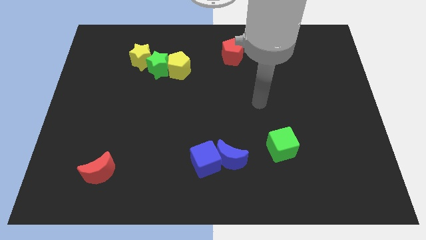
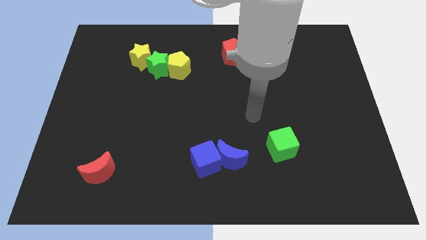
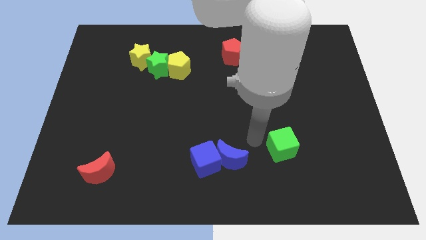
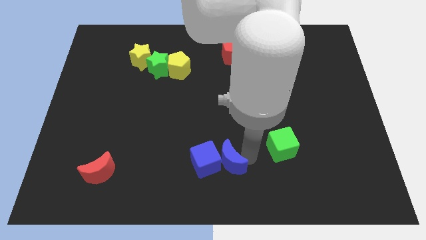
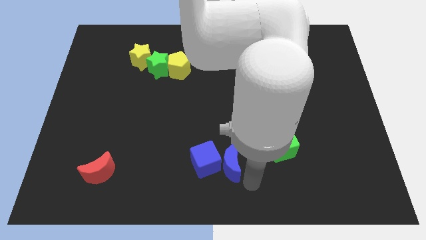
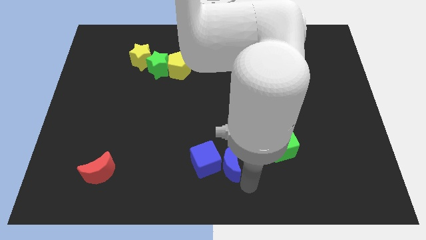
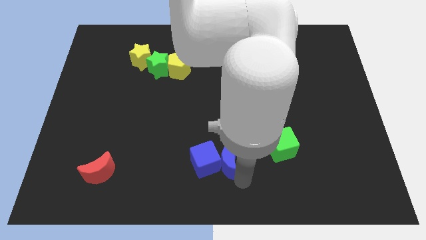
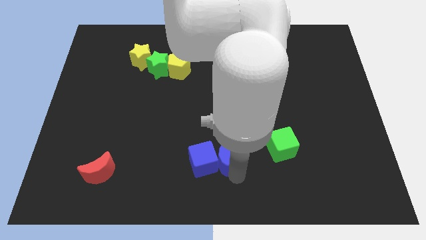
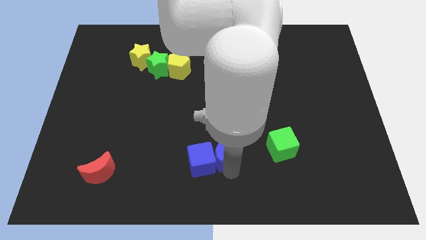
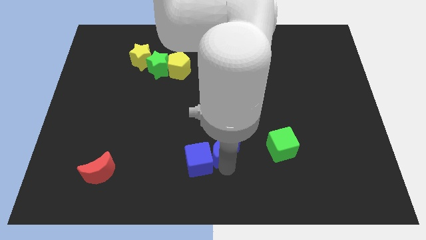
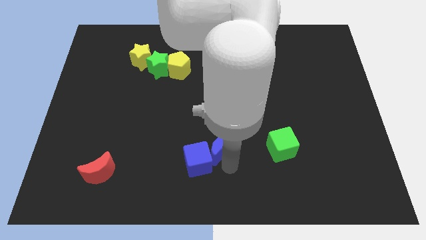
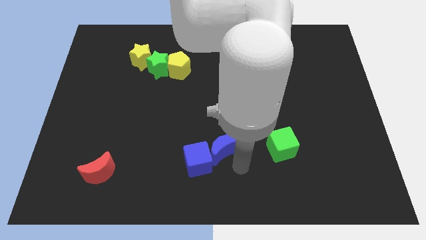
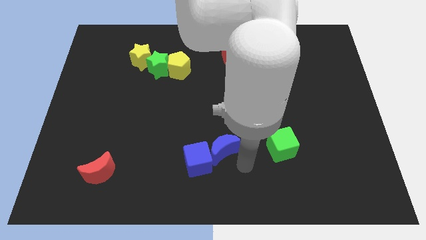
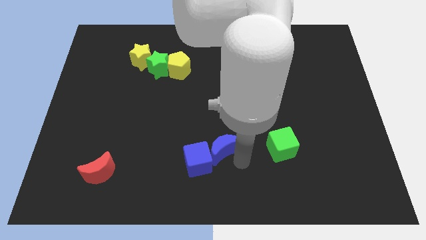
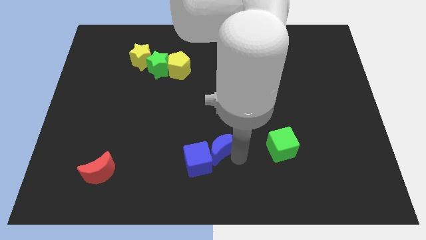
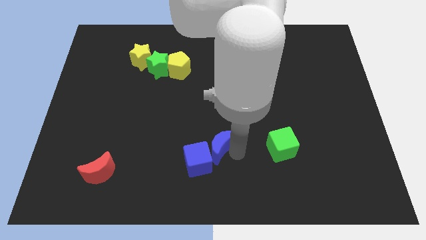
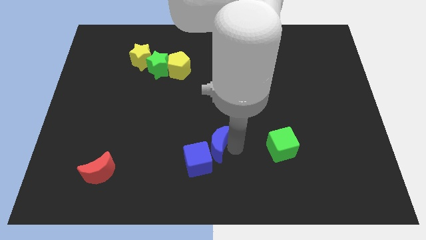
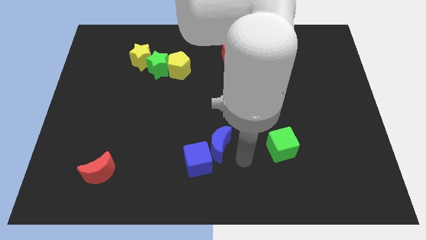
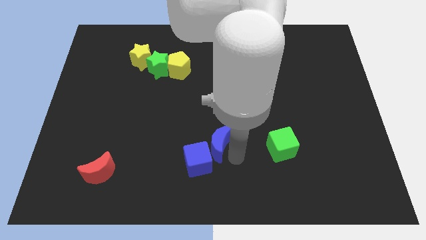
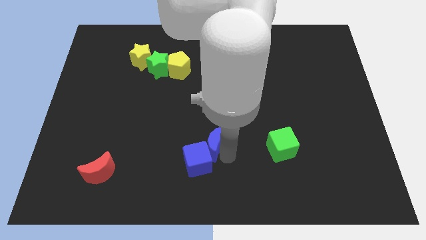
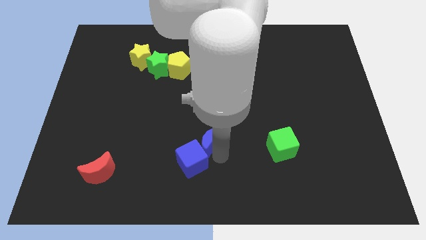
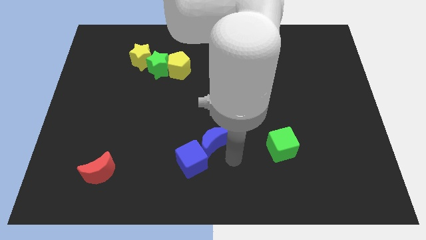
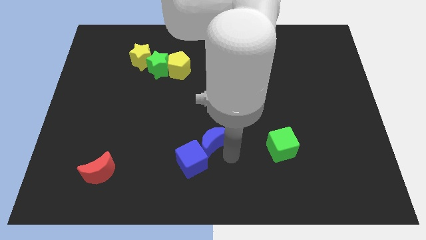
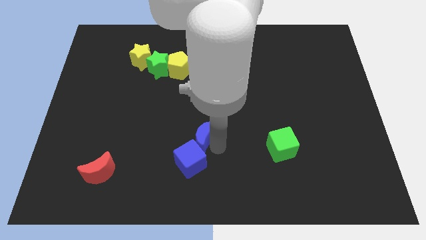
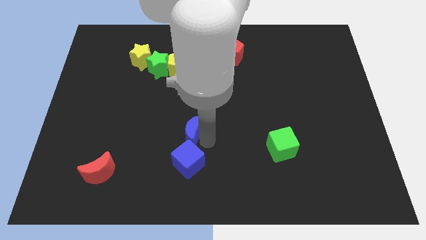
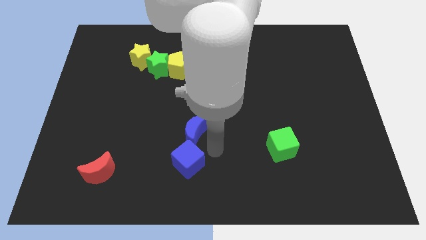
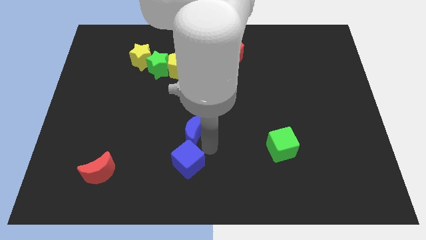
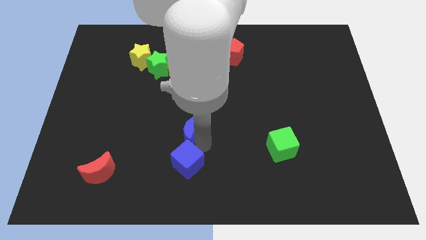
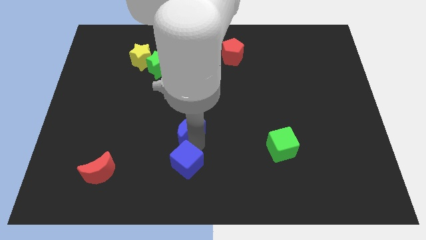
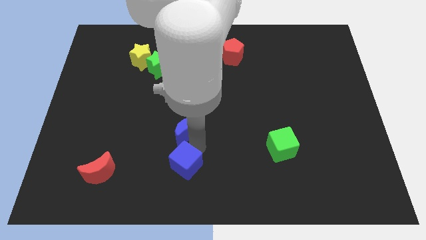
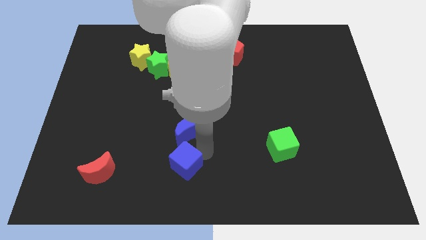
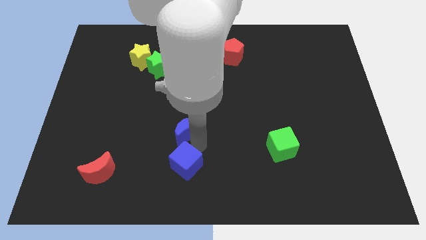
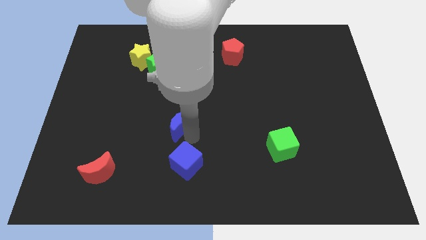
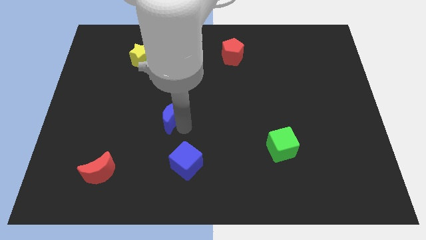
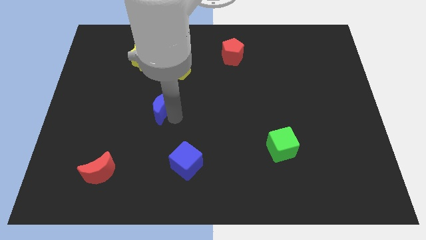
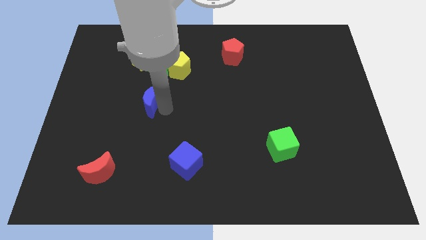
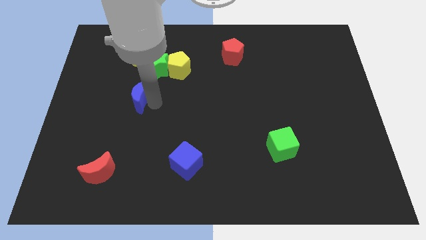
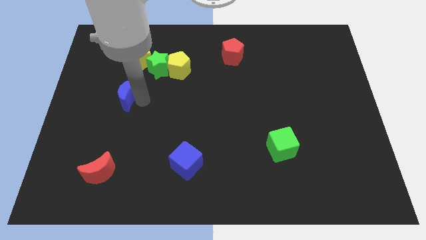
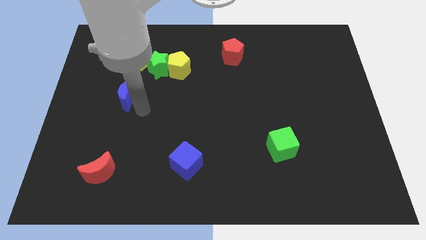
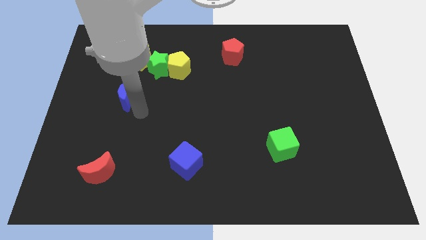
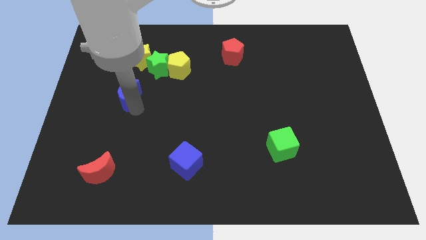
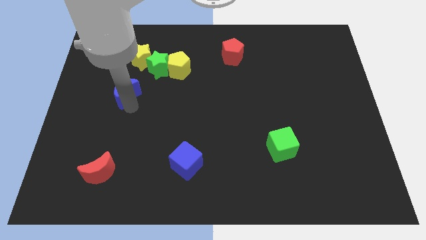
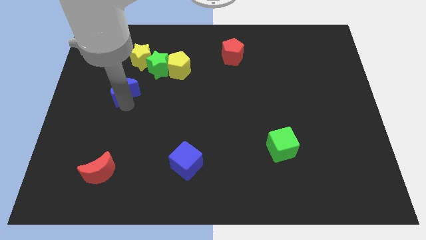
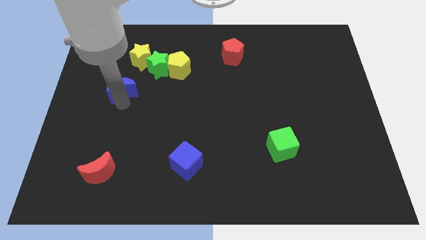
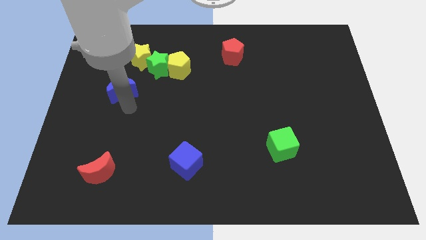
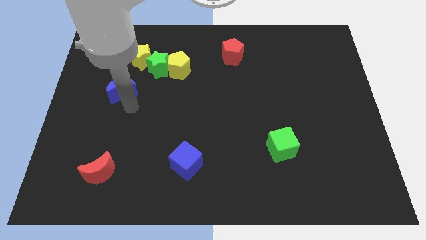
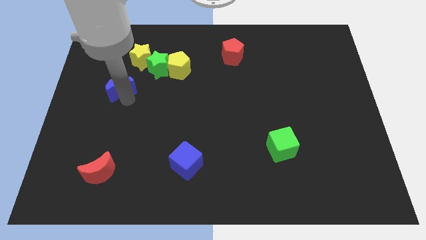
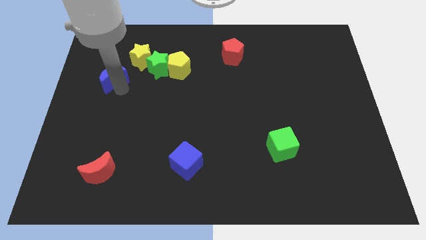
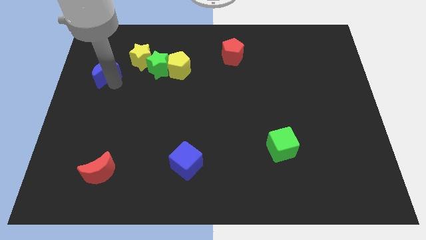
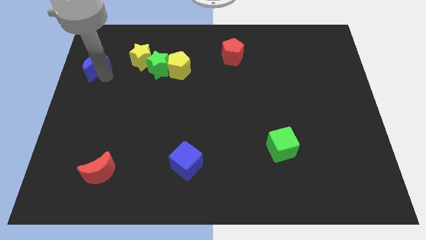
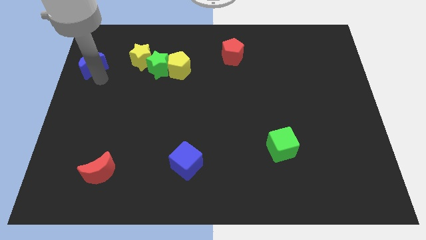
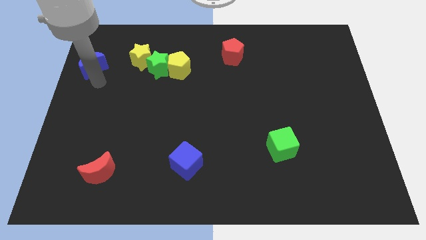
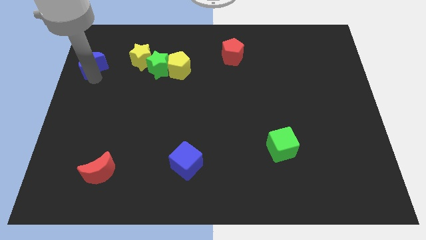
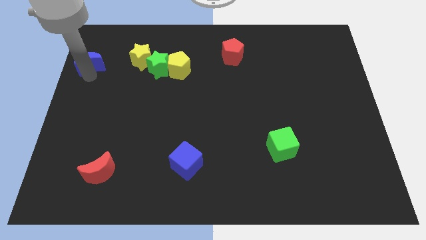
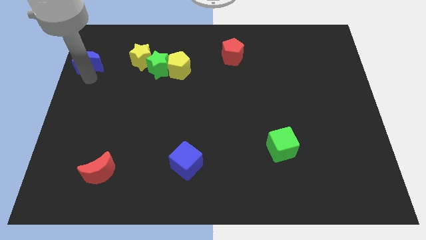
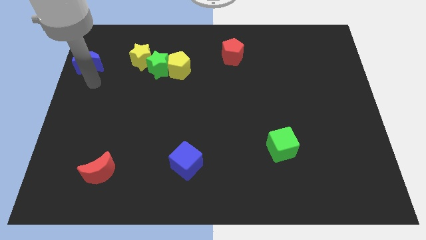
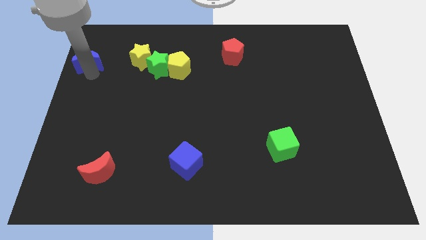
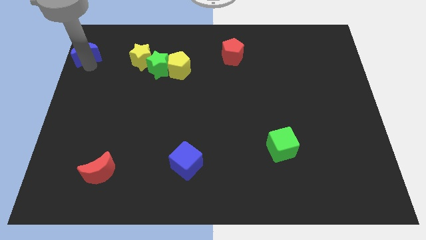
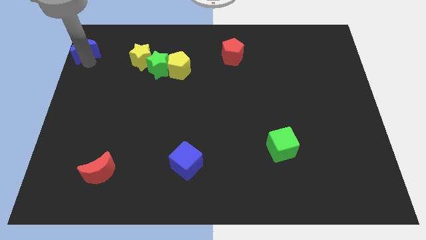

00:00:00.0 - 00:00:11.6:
move the blue moon to the top left corner

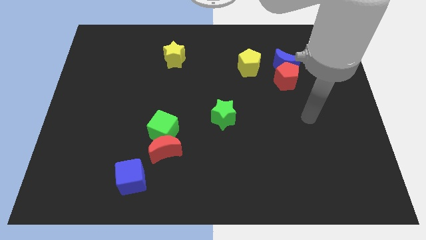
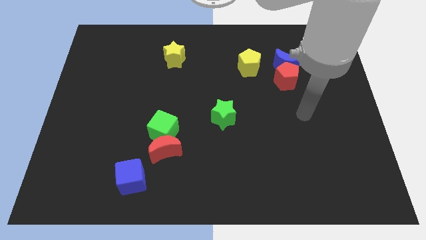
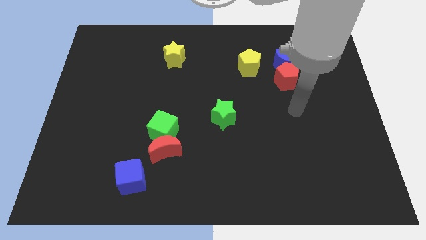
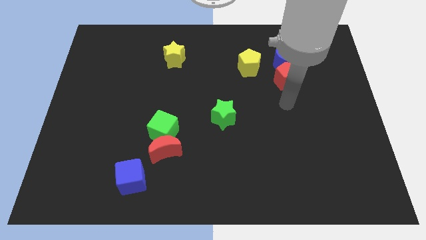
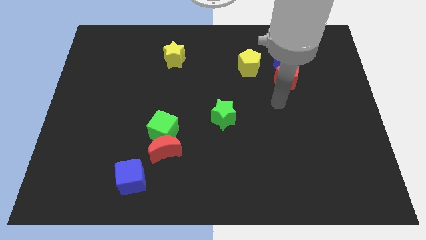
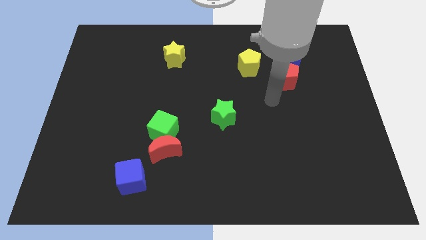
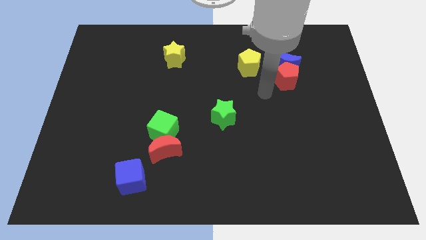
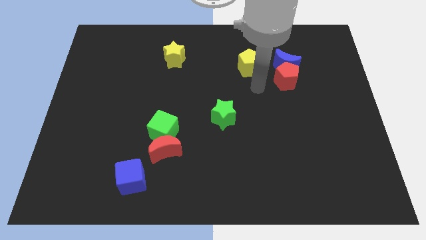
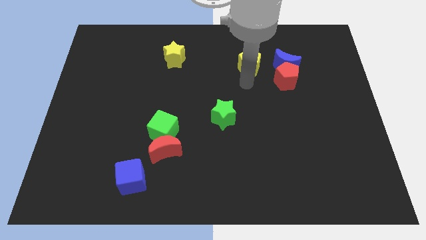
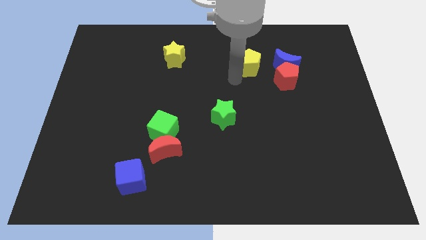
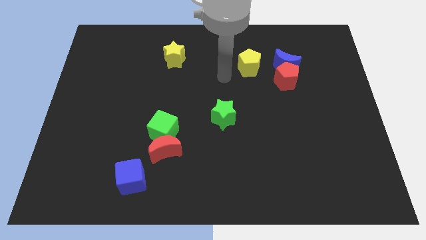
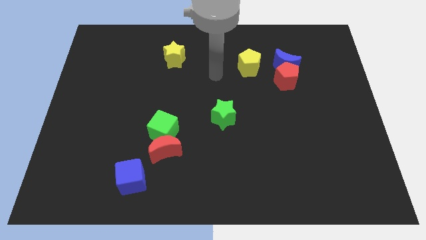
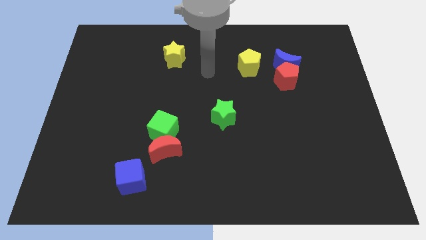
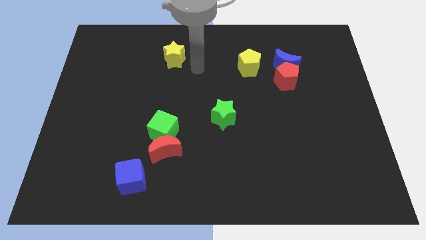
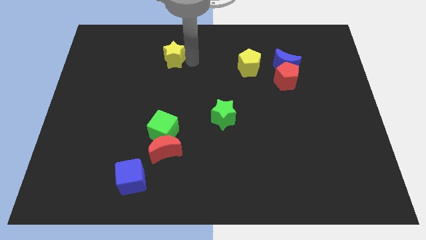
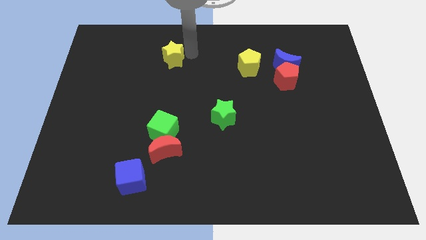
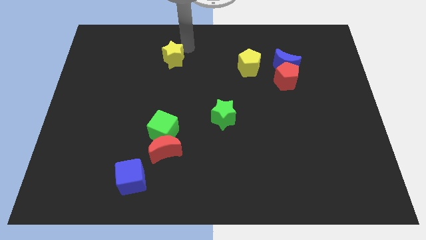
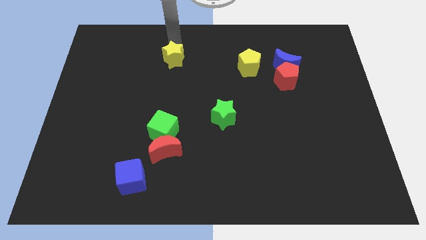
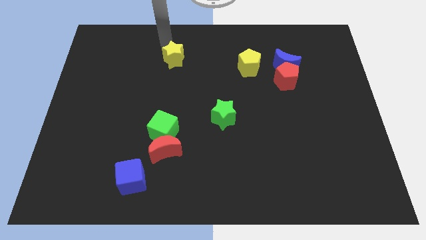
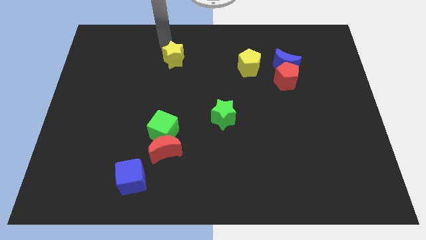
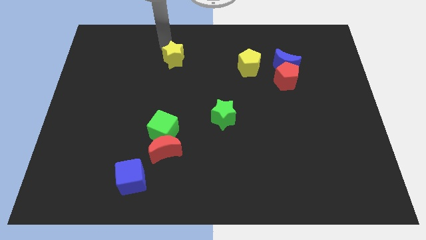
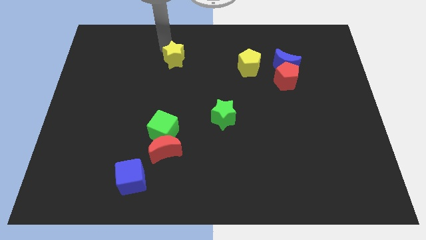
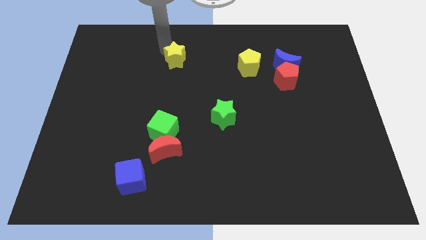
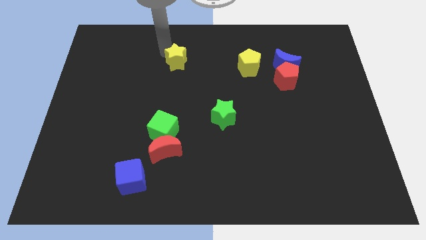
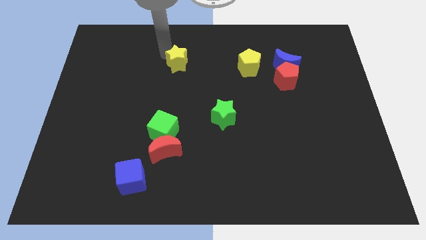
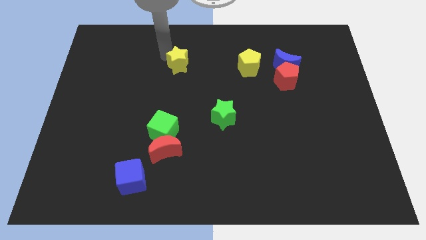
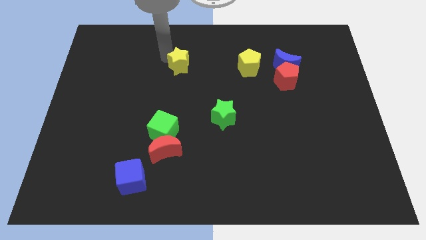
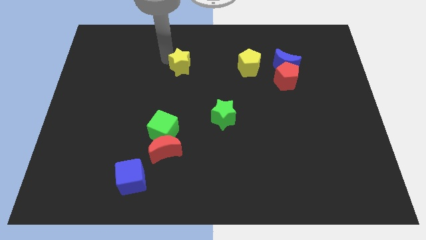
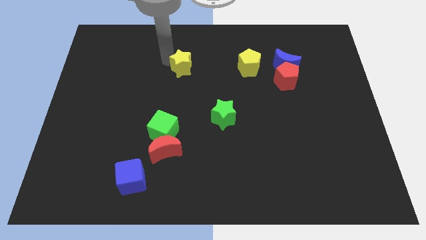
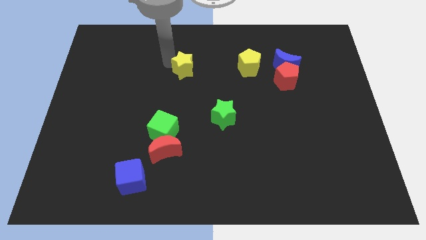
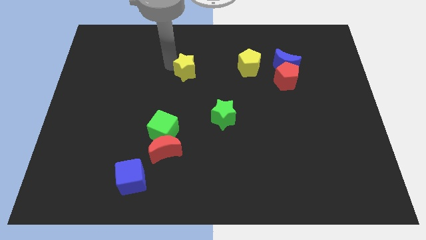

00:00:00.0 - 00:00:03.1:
move the yellow star to the center
